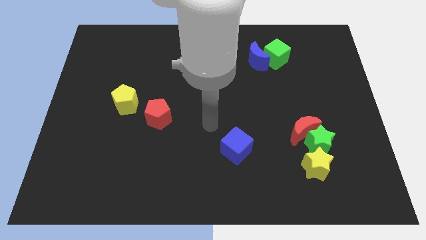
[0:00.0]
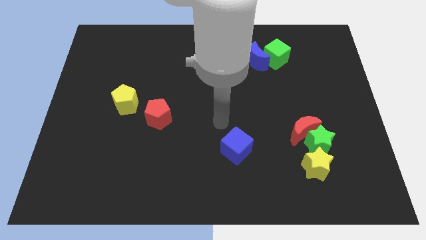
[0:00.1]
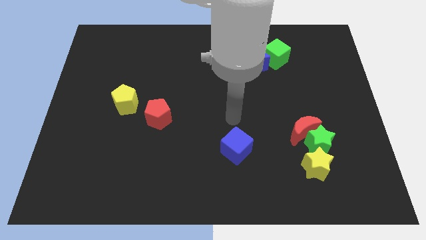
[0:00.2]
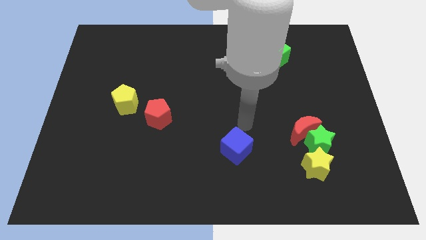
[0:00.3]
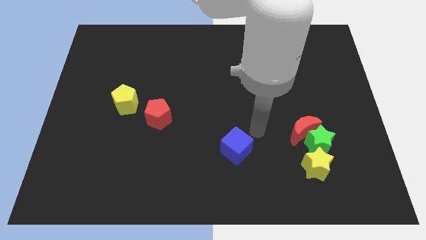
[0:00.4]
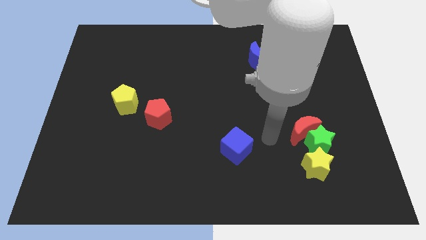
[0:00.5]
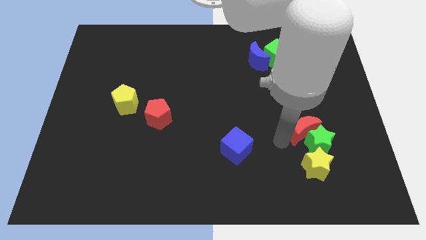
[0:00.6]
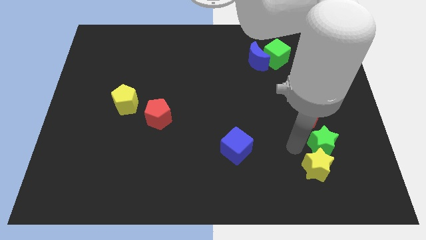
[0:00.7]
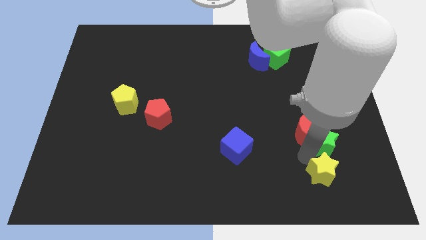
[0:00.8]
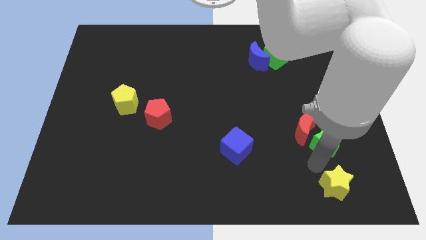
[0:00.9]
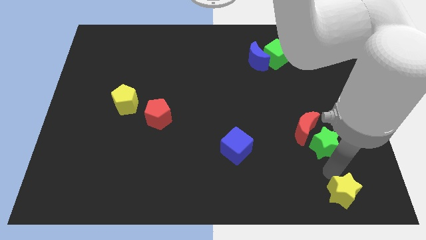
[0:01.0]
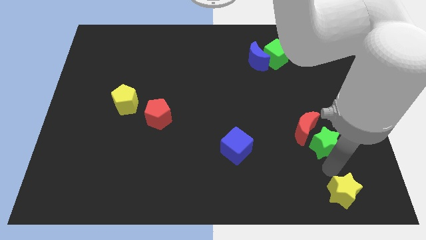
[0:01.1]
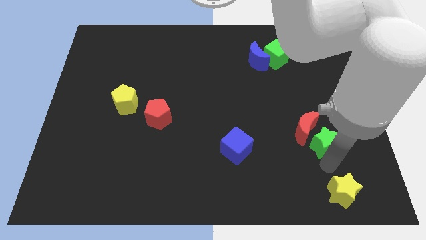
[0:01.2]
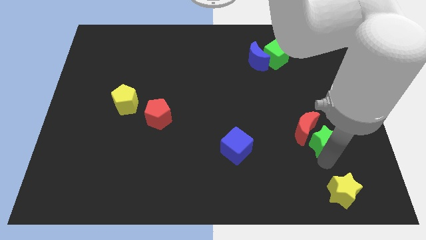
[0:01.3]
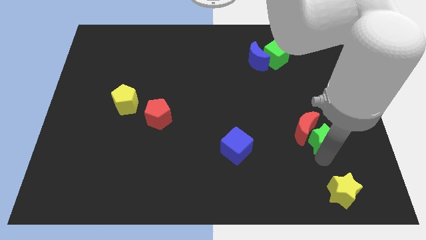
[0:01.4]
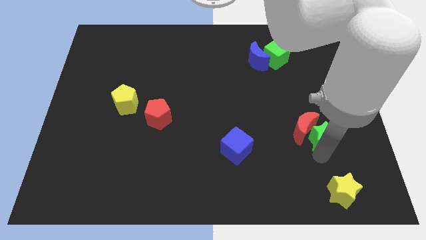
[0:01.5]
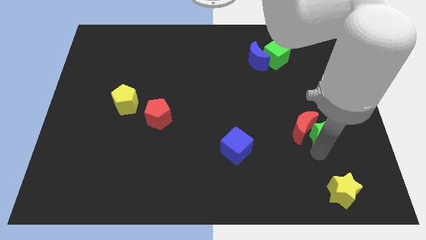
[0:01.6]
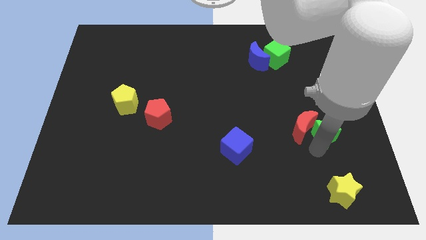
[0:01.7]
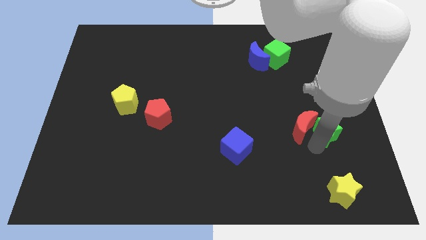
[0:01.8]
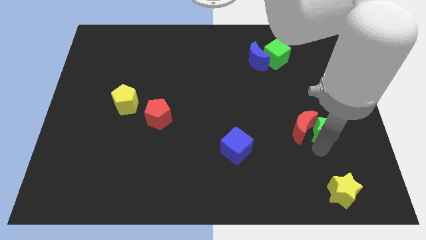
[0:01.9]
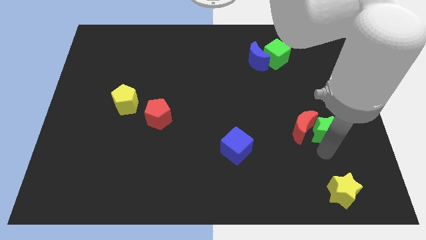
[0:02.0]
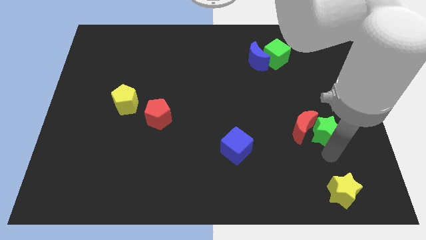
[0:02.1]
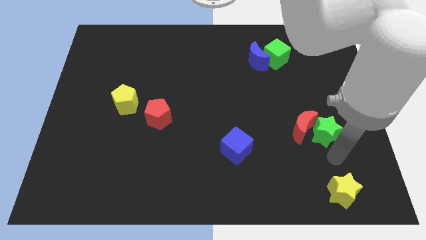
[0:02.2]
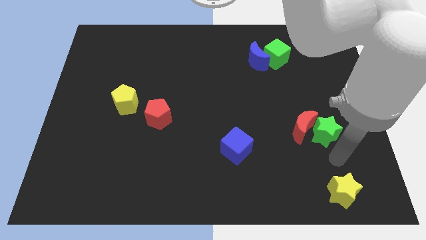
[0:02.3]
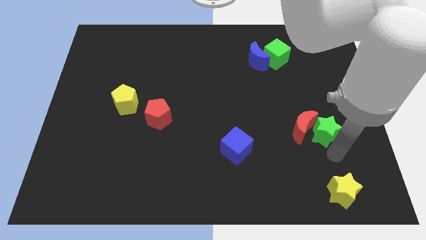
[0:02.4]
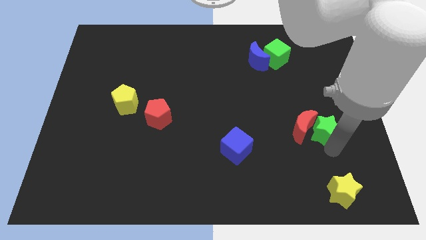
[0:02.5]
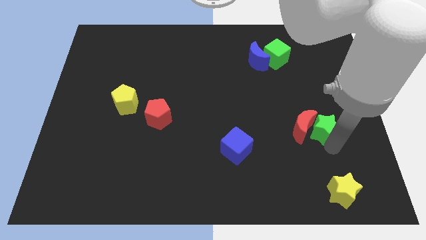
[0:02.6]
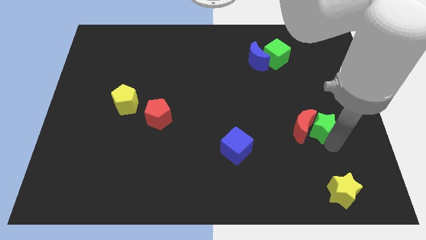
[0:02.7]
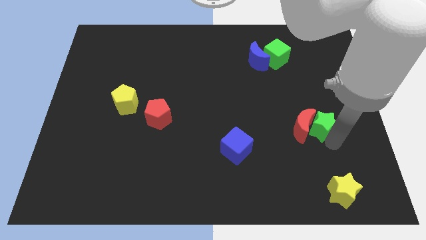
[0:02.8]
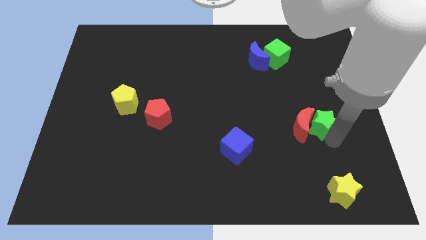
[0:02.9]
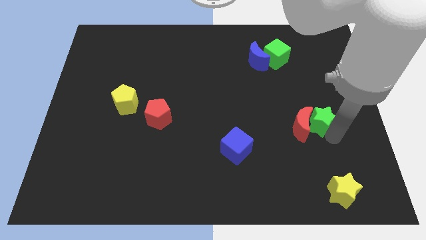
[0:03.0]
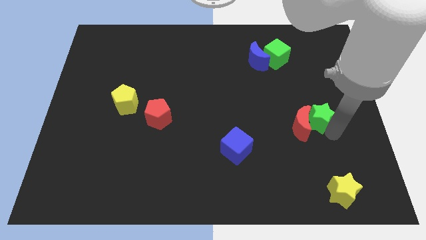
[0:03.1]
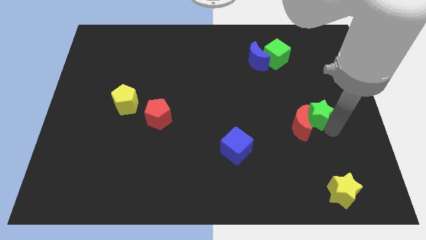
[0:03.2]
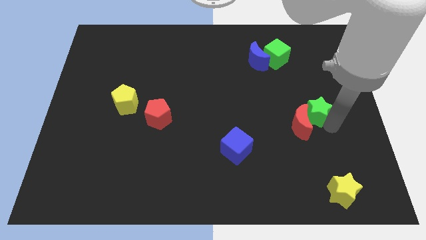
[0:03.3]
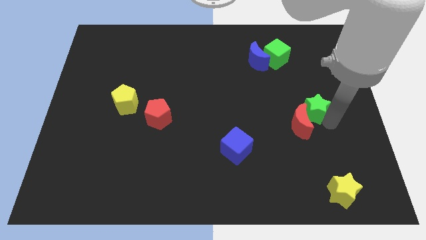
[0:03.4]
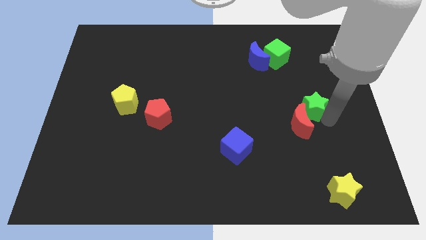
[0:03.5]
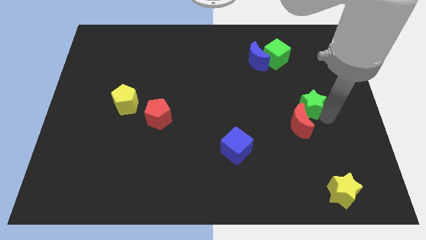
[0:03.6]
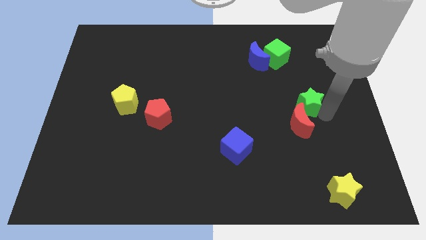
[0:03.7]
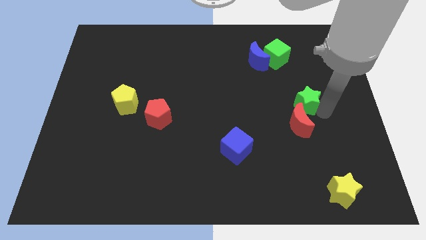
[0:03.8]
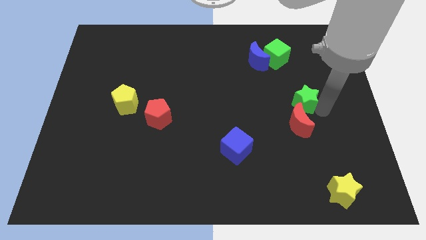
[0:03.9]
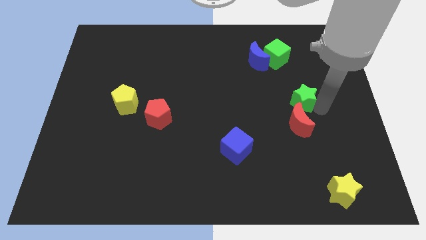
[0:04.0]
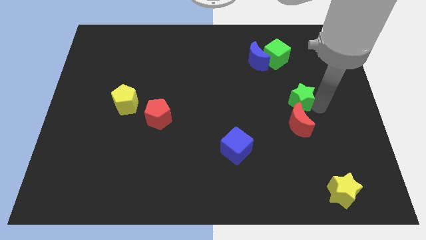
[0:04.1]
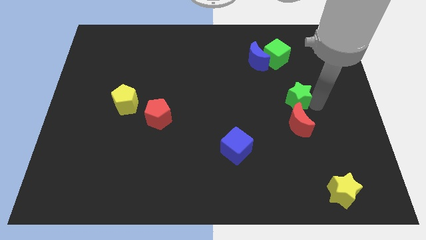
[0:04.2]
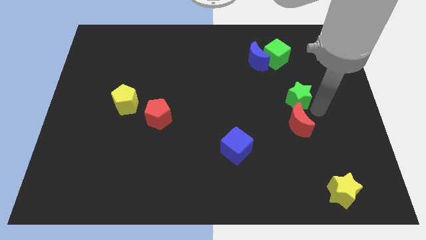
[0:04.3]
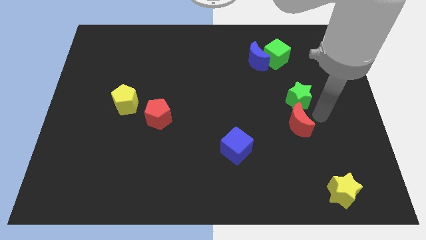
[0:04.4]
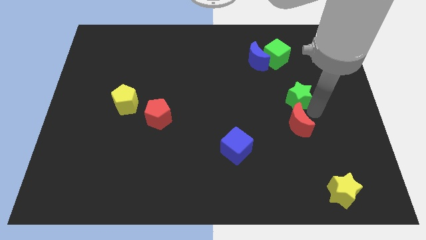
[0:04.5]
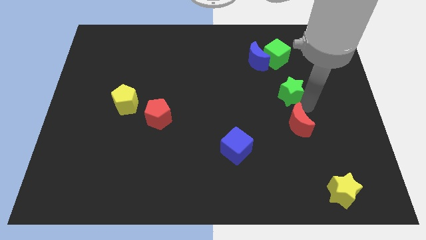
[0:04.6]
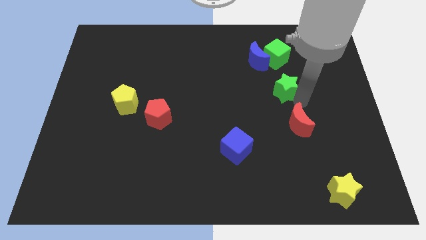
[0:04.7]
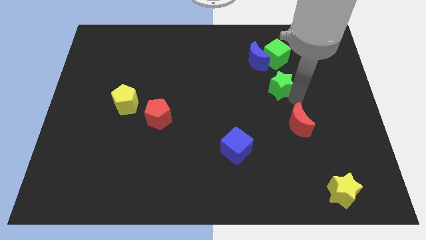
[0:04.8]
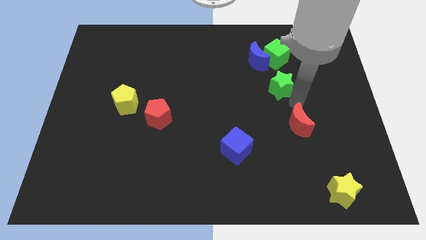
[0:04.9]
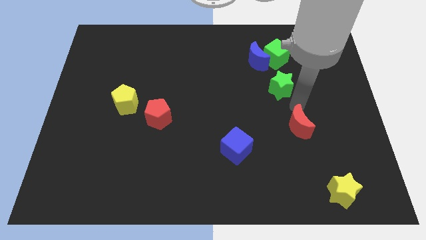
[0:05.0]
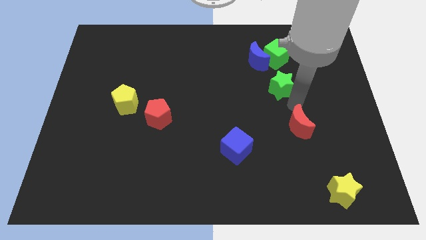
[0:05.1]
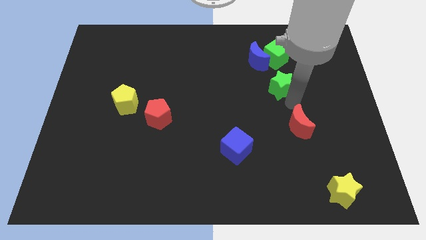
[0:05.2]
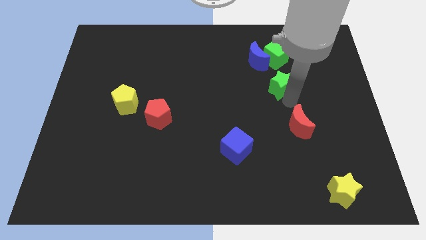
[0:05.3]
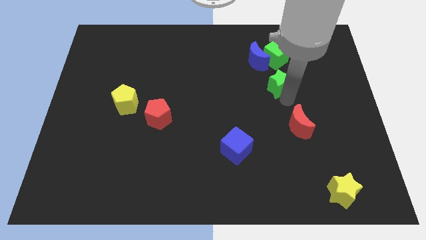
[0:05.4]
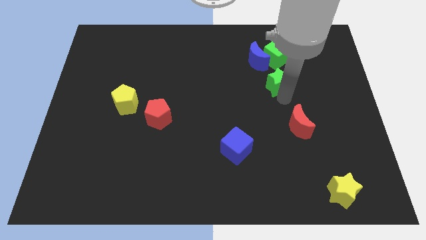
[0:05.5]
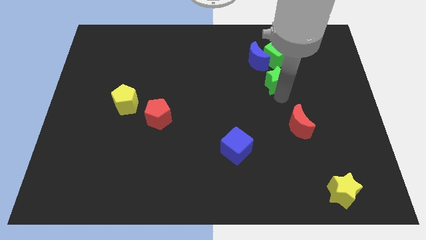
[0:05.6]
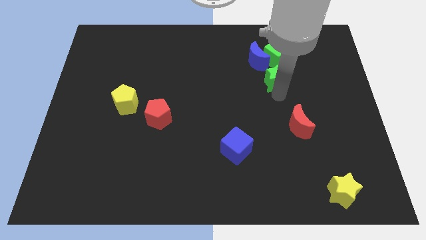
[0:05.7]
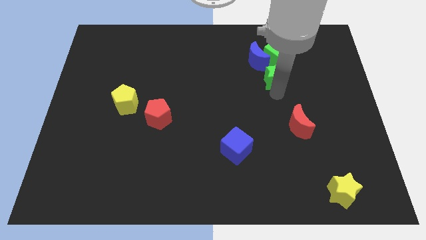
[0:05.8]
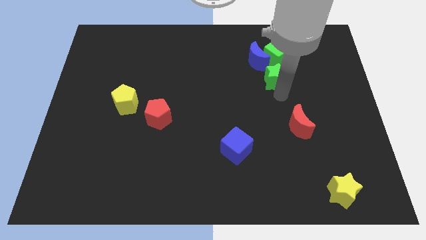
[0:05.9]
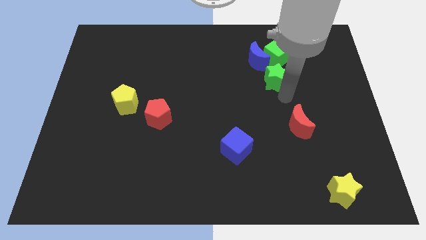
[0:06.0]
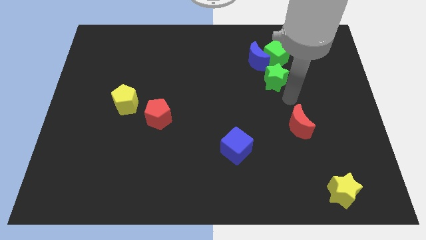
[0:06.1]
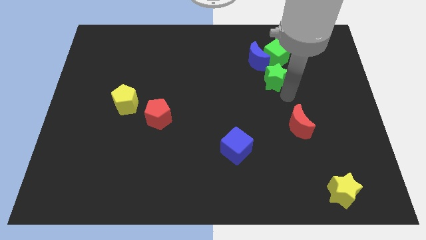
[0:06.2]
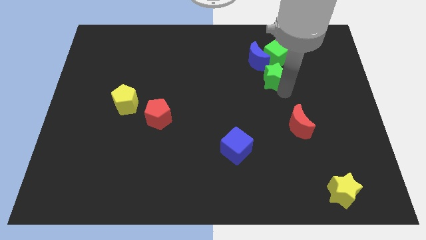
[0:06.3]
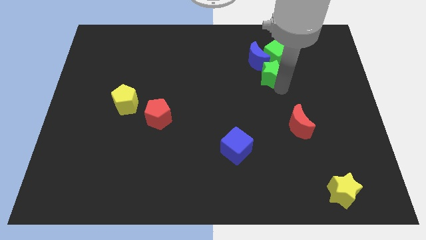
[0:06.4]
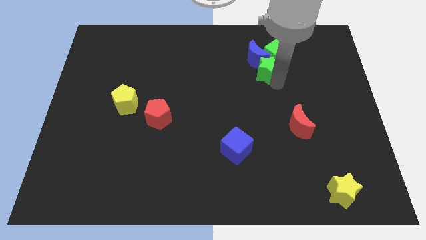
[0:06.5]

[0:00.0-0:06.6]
move the green star towards the blue moon
